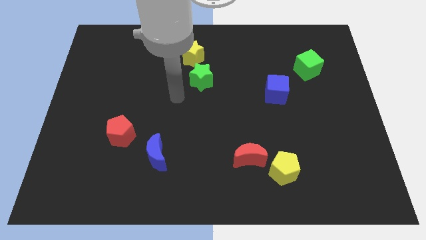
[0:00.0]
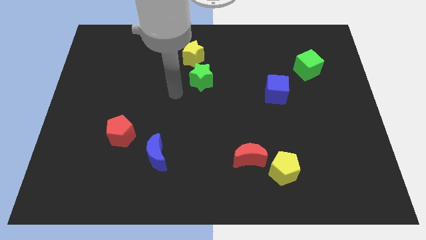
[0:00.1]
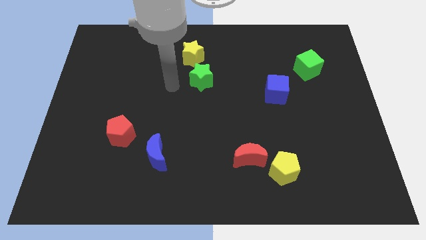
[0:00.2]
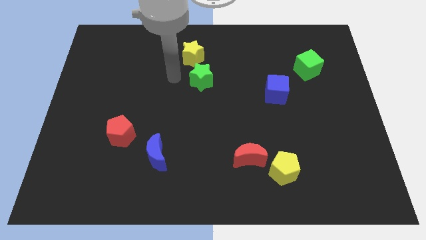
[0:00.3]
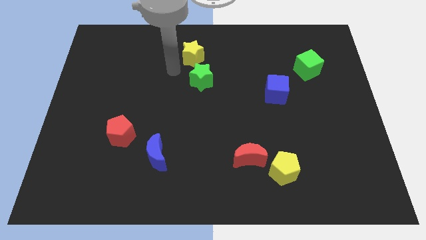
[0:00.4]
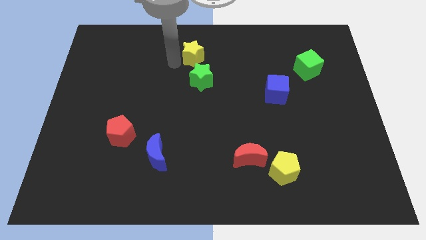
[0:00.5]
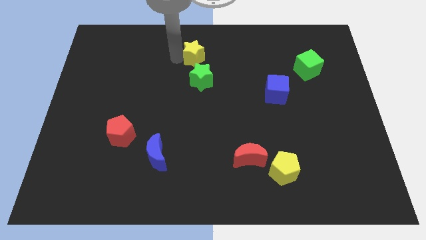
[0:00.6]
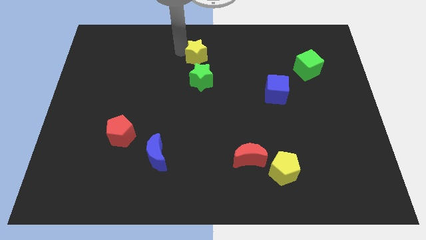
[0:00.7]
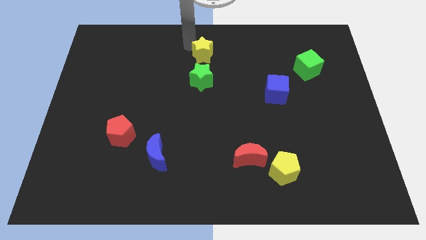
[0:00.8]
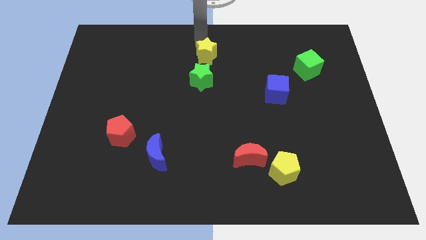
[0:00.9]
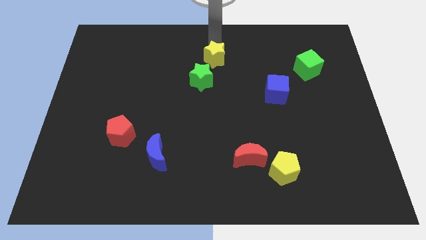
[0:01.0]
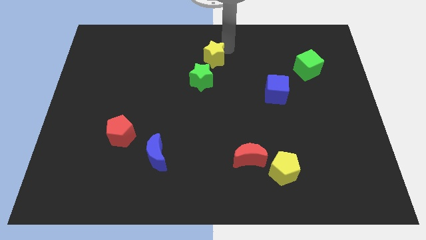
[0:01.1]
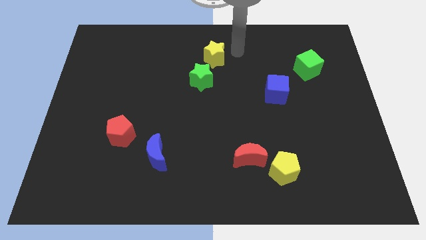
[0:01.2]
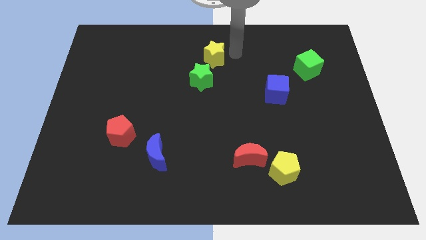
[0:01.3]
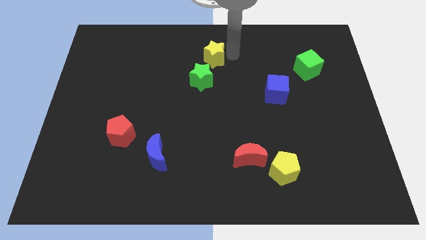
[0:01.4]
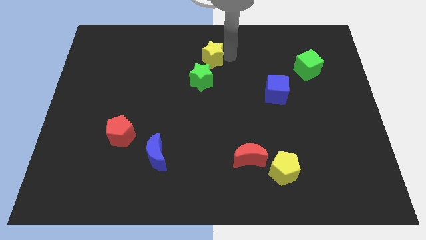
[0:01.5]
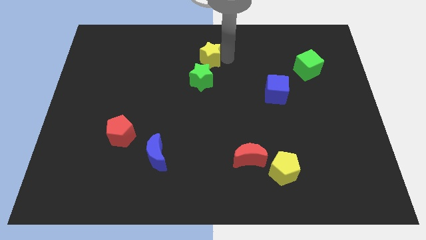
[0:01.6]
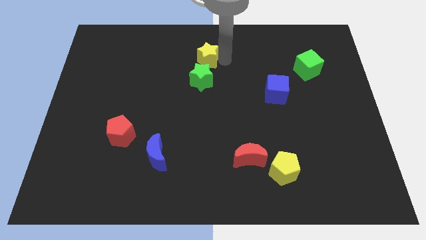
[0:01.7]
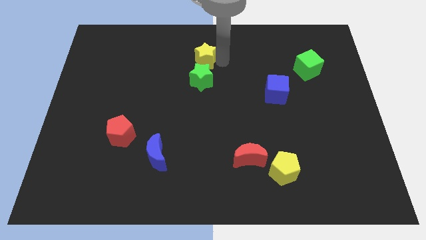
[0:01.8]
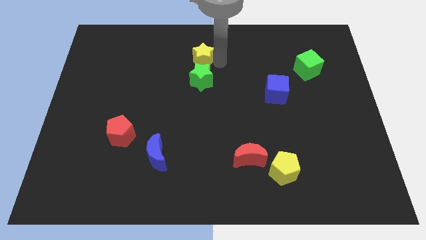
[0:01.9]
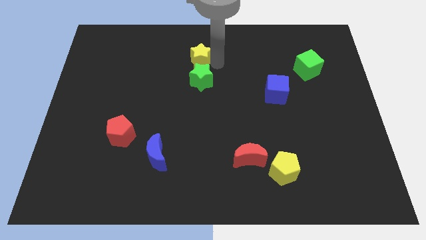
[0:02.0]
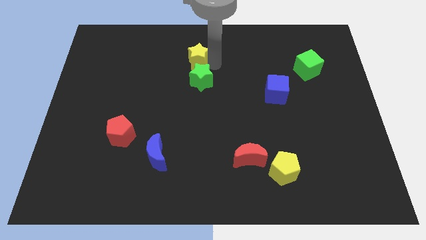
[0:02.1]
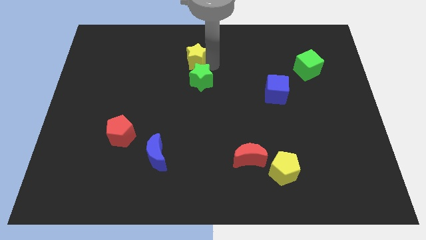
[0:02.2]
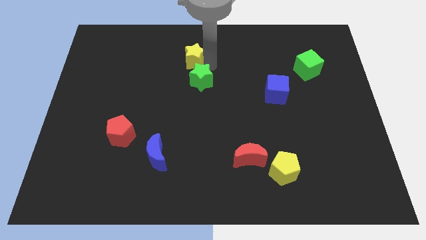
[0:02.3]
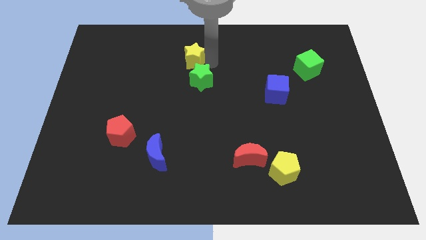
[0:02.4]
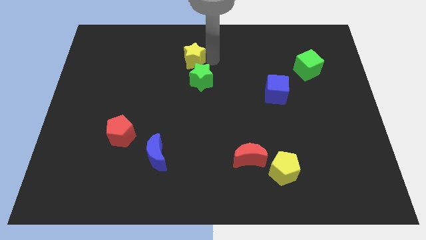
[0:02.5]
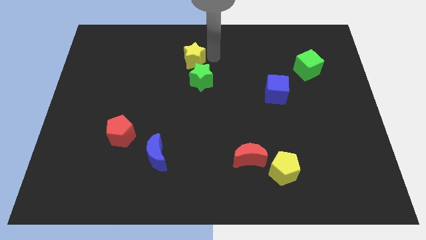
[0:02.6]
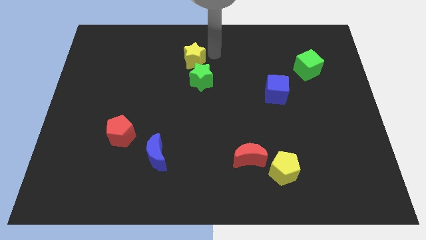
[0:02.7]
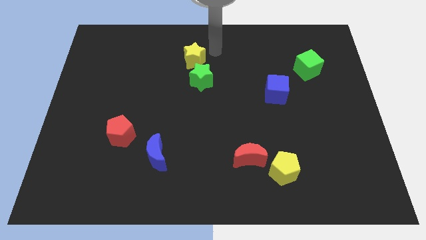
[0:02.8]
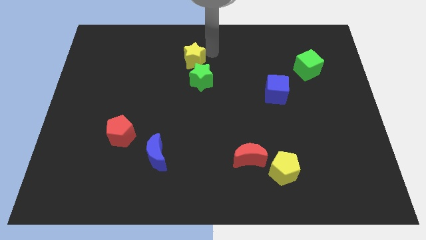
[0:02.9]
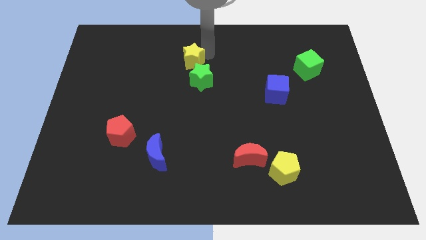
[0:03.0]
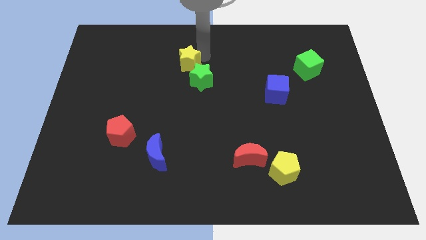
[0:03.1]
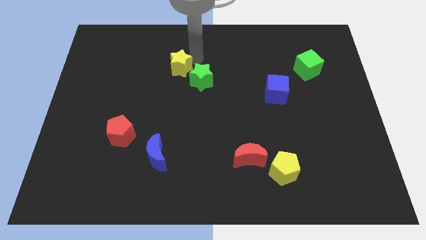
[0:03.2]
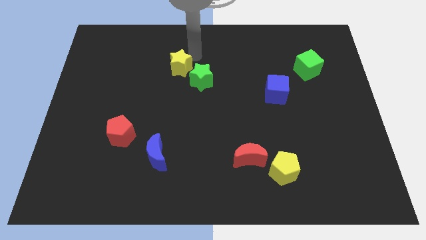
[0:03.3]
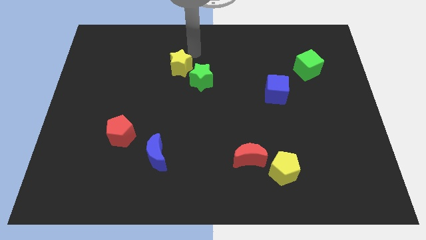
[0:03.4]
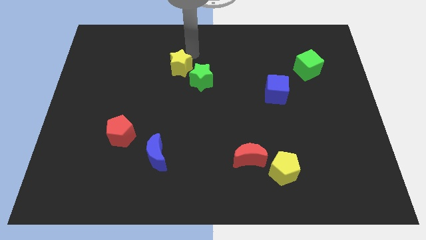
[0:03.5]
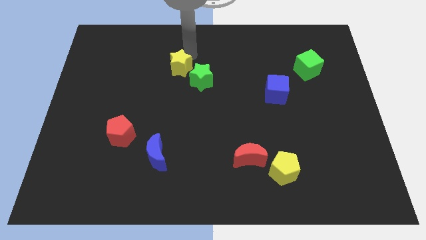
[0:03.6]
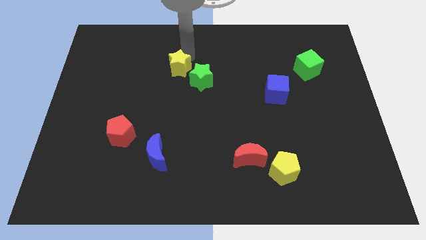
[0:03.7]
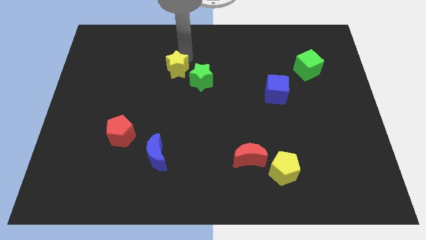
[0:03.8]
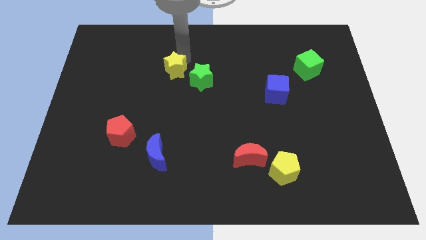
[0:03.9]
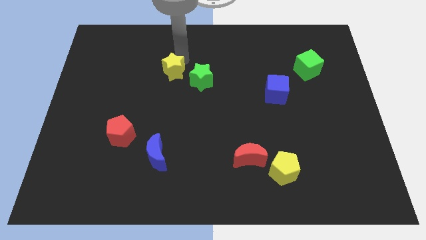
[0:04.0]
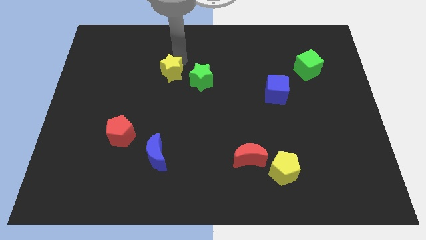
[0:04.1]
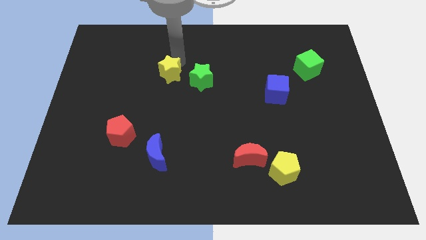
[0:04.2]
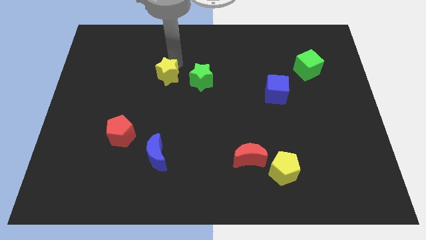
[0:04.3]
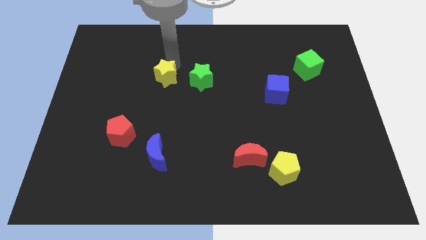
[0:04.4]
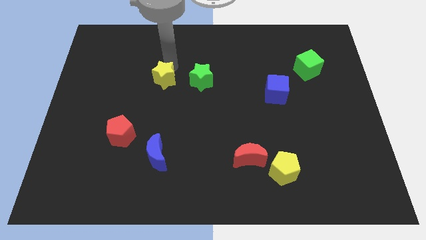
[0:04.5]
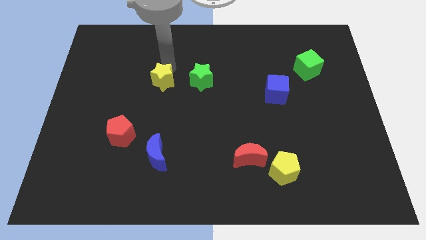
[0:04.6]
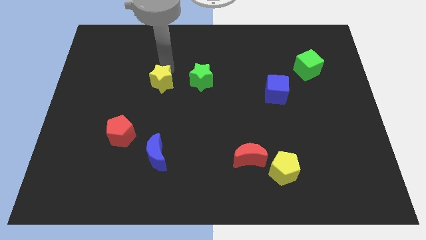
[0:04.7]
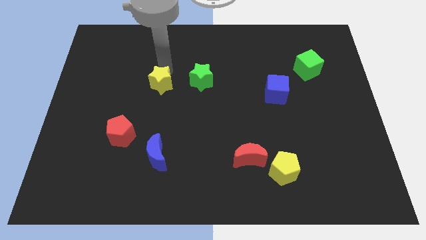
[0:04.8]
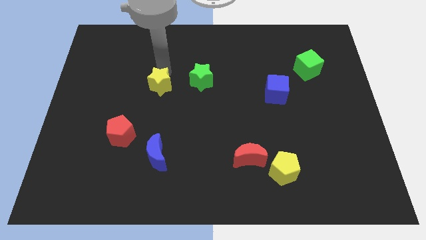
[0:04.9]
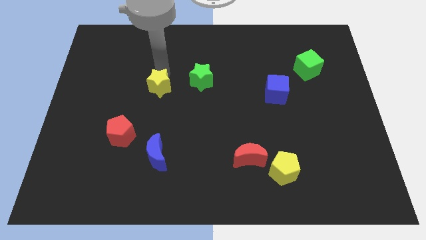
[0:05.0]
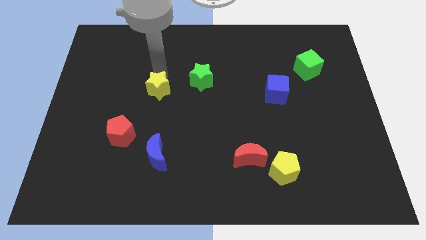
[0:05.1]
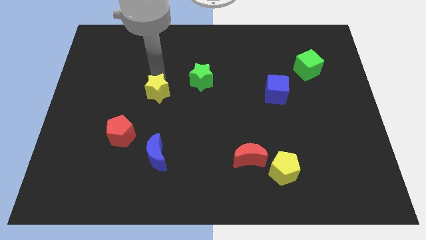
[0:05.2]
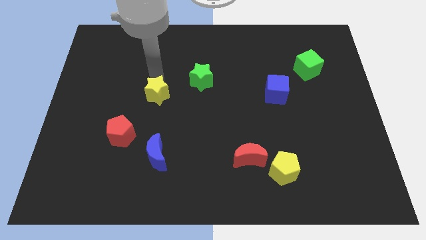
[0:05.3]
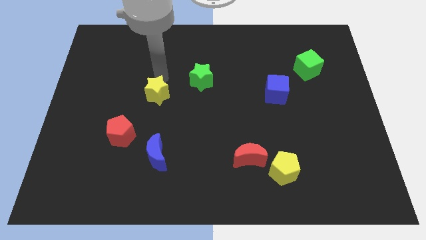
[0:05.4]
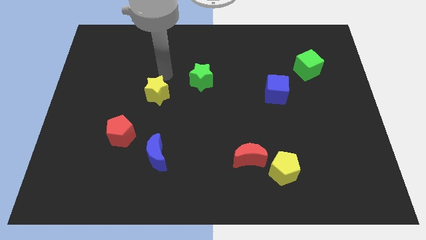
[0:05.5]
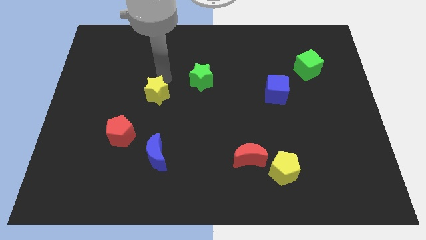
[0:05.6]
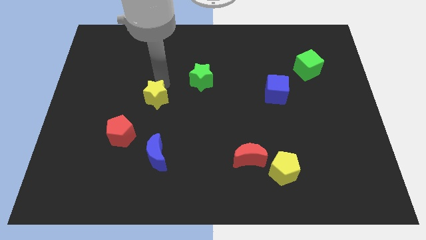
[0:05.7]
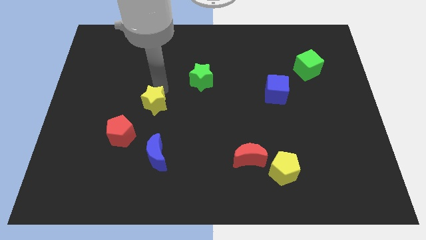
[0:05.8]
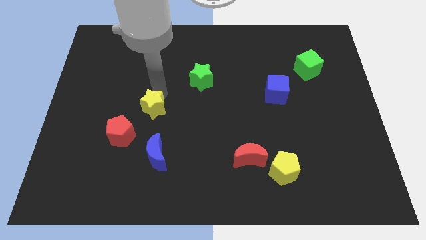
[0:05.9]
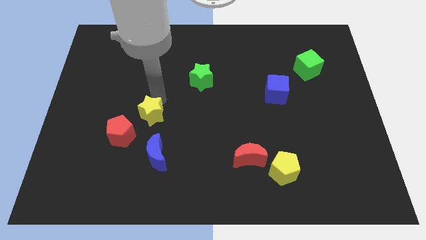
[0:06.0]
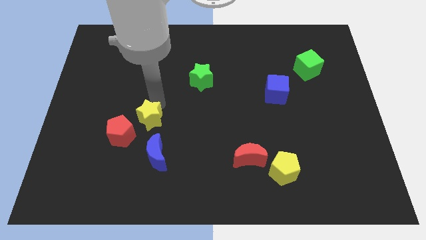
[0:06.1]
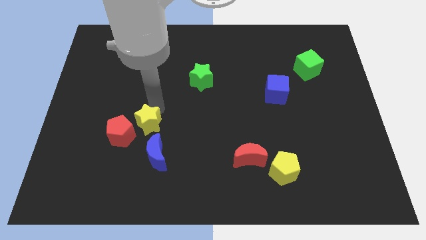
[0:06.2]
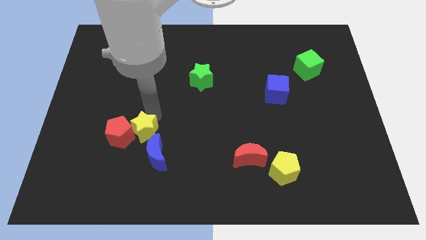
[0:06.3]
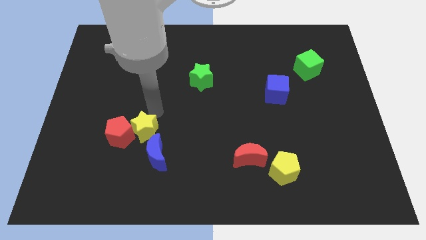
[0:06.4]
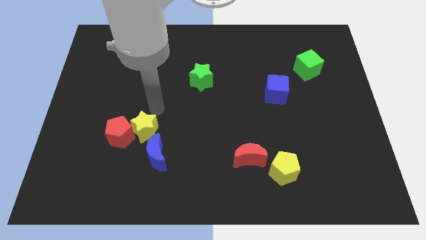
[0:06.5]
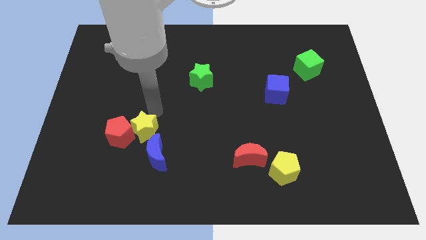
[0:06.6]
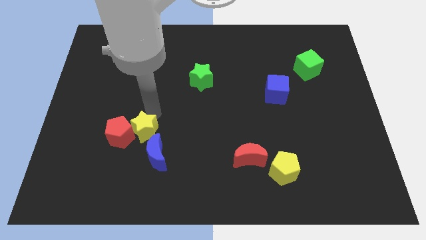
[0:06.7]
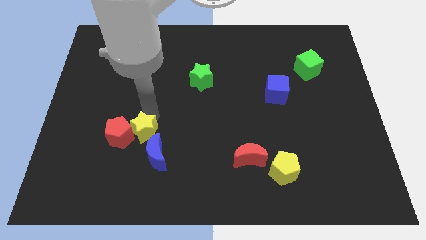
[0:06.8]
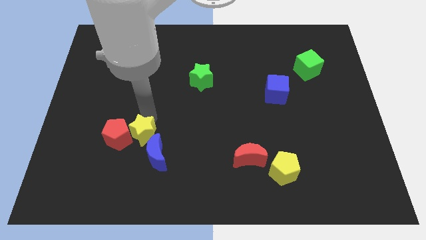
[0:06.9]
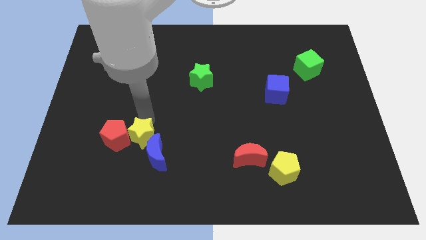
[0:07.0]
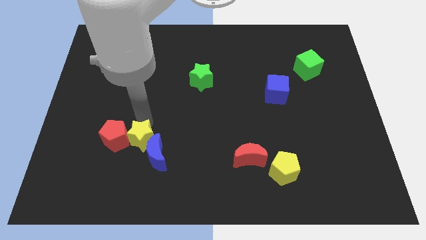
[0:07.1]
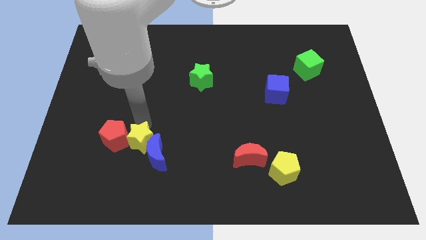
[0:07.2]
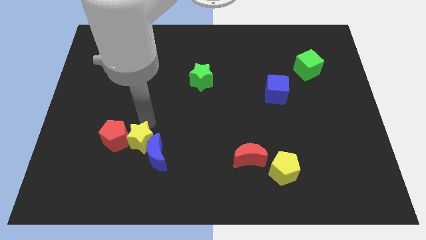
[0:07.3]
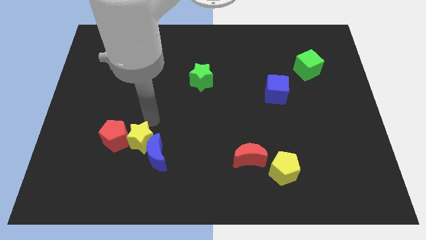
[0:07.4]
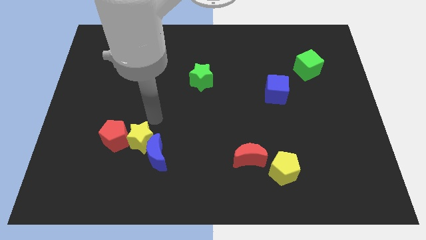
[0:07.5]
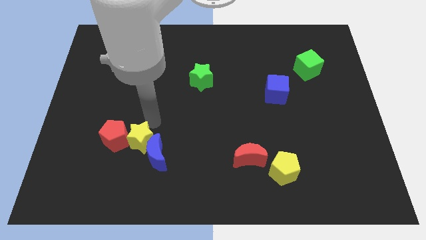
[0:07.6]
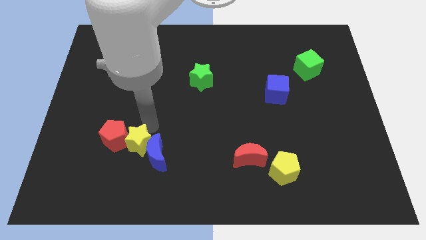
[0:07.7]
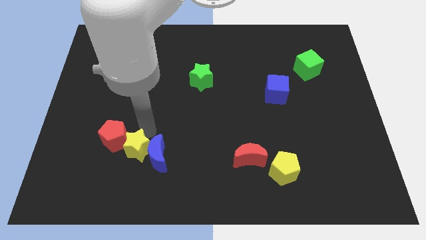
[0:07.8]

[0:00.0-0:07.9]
put the yellow star diagonally down and to the left of the blue moon
